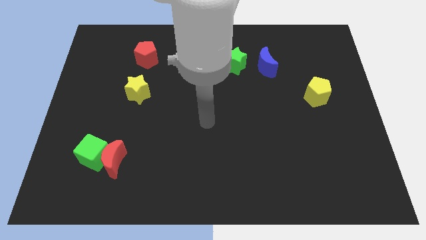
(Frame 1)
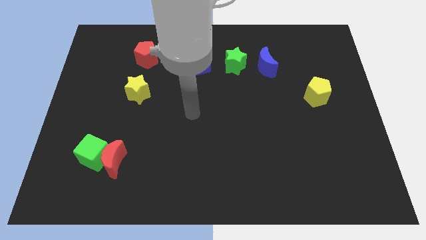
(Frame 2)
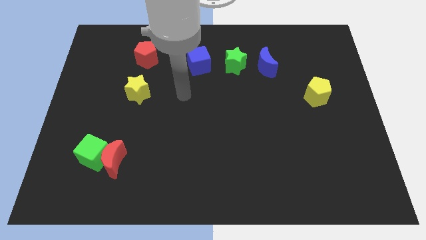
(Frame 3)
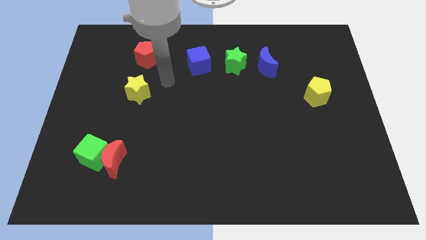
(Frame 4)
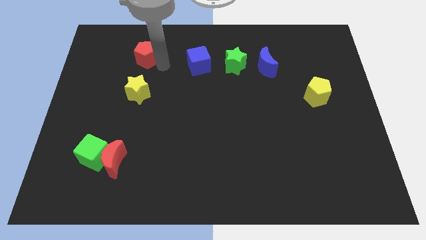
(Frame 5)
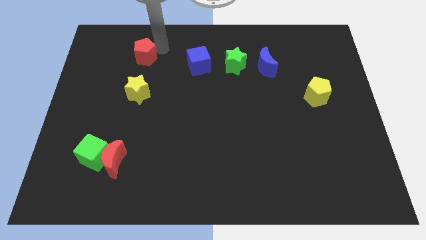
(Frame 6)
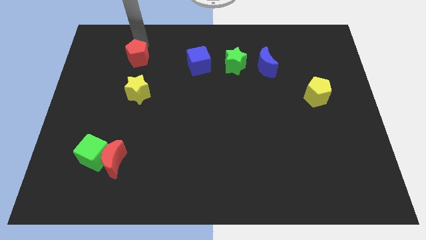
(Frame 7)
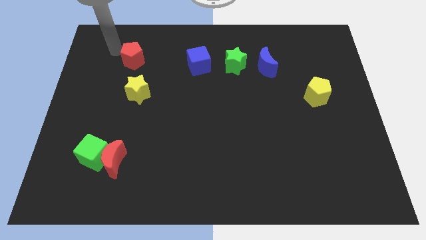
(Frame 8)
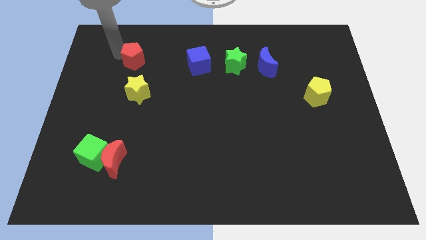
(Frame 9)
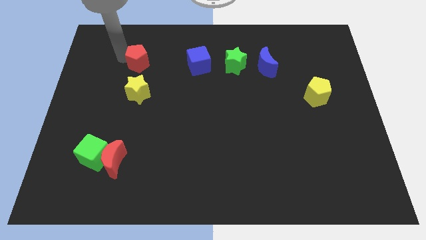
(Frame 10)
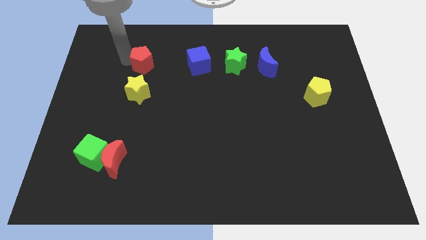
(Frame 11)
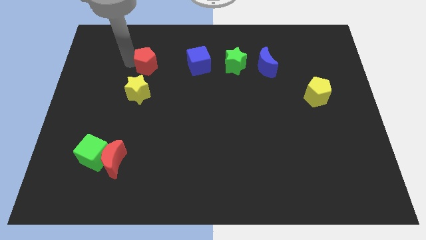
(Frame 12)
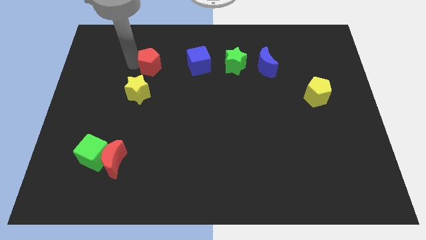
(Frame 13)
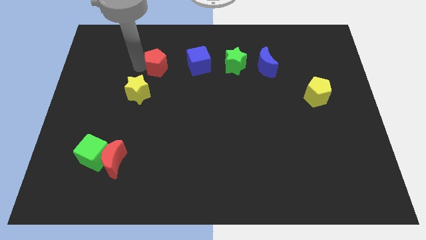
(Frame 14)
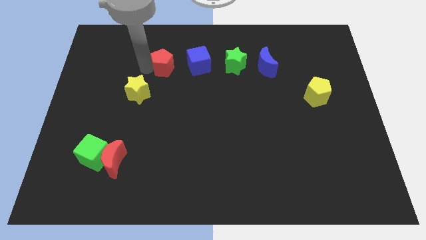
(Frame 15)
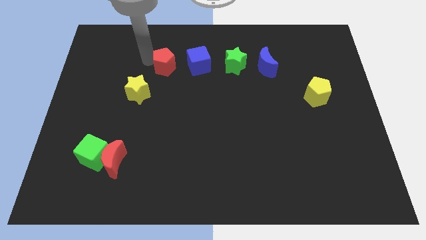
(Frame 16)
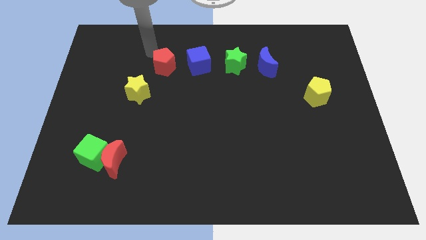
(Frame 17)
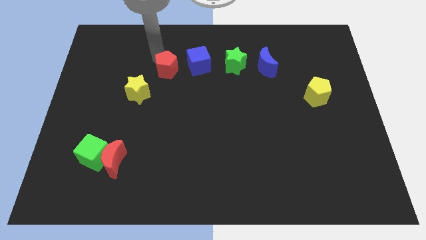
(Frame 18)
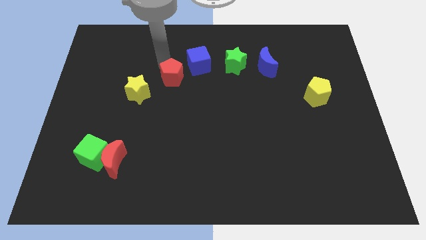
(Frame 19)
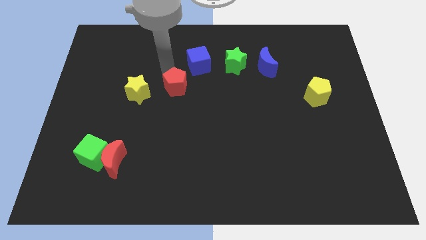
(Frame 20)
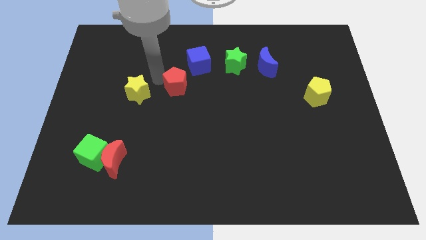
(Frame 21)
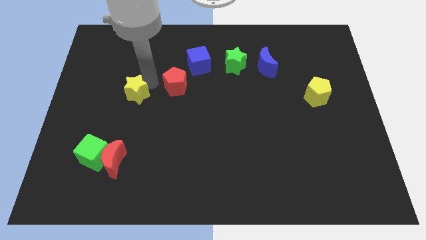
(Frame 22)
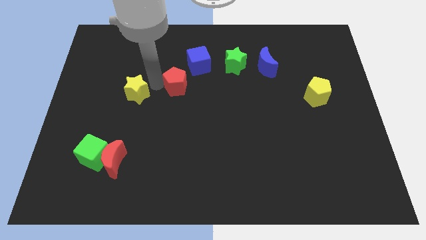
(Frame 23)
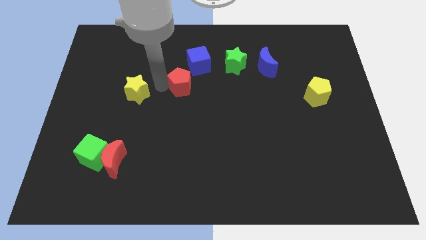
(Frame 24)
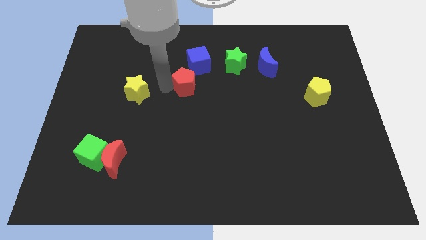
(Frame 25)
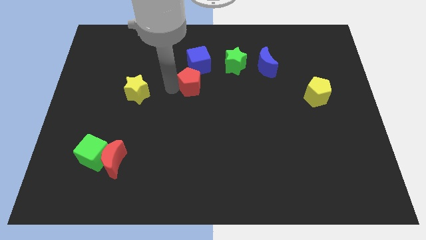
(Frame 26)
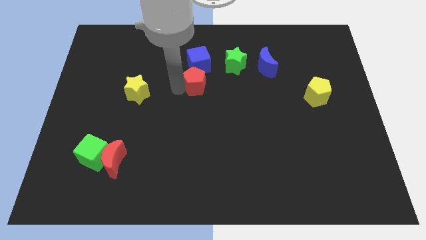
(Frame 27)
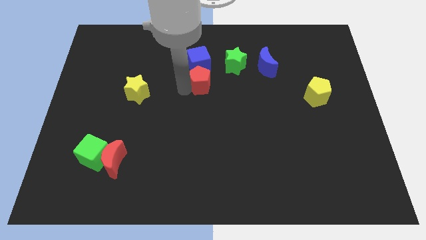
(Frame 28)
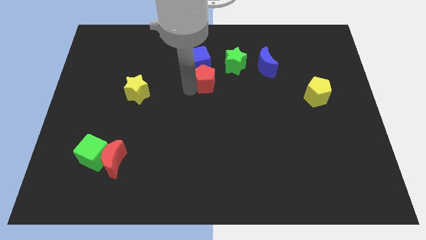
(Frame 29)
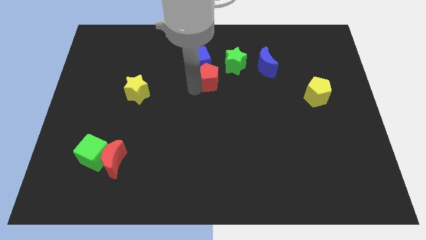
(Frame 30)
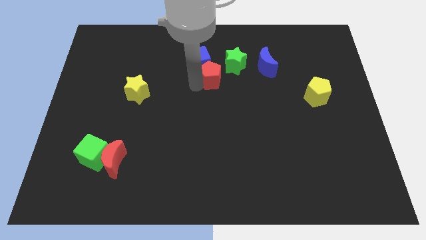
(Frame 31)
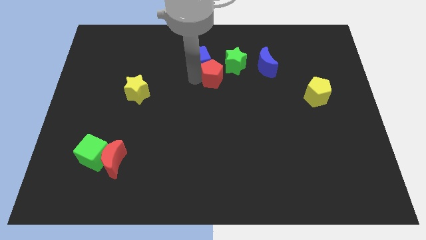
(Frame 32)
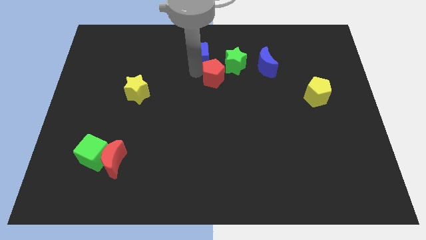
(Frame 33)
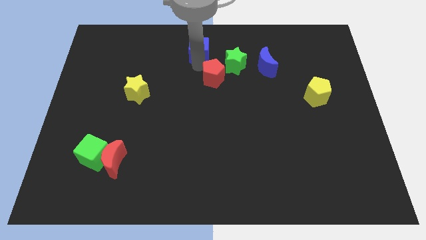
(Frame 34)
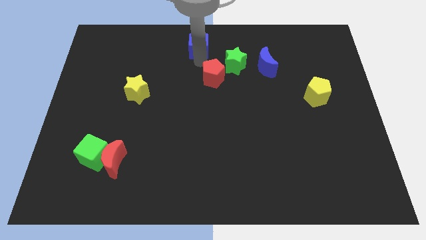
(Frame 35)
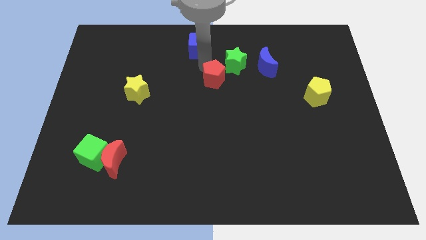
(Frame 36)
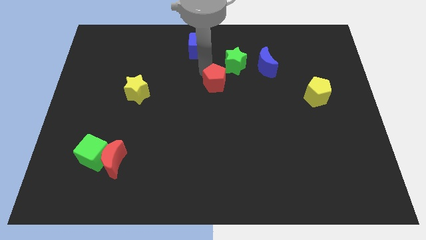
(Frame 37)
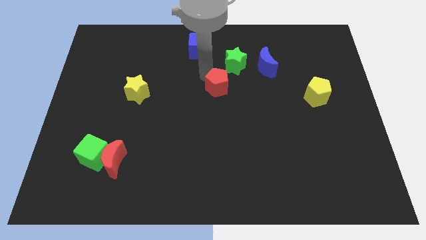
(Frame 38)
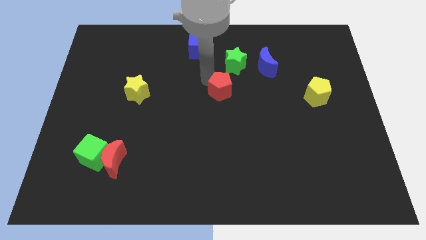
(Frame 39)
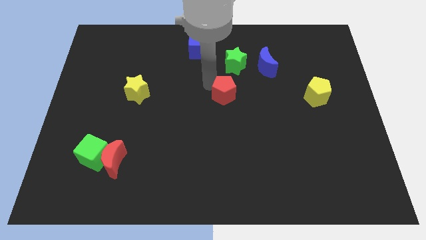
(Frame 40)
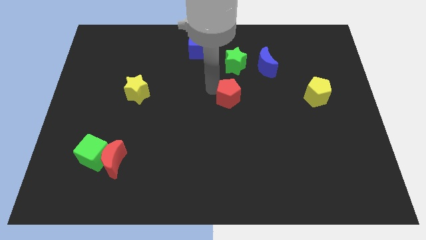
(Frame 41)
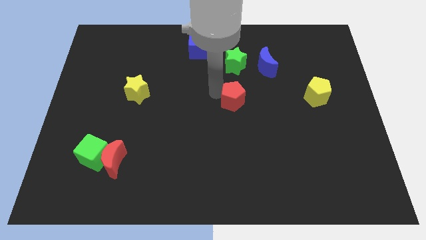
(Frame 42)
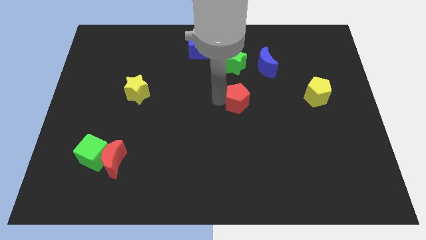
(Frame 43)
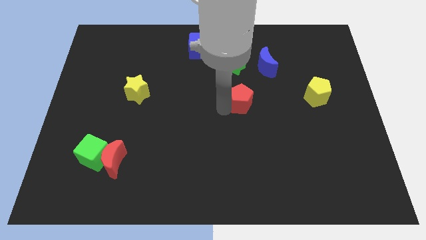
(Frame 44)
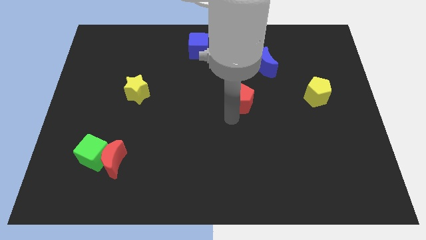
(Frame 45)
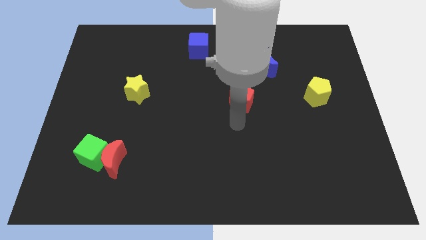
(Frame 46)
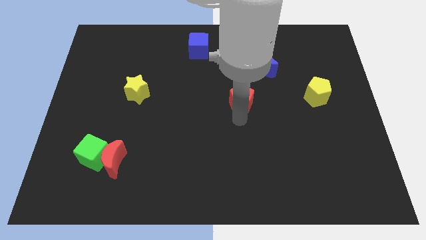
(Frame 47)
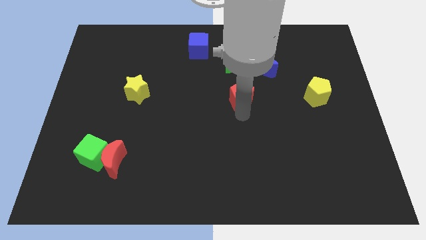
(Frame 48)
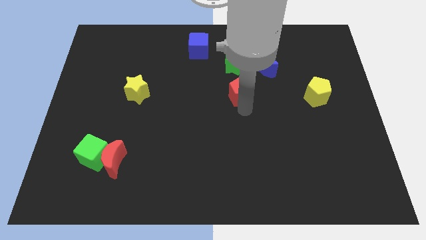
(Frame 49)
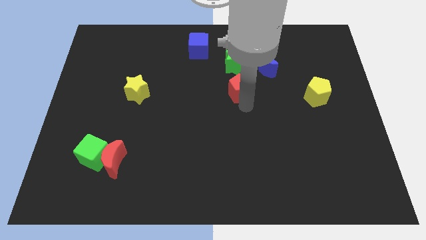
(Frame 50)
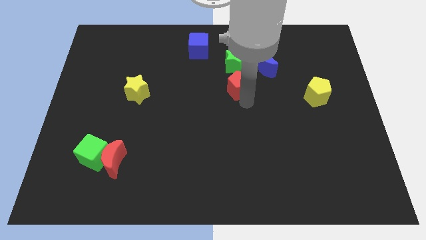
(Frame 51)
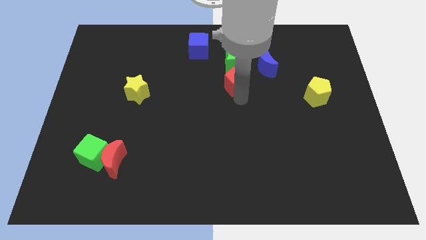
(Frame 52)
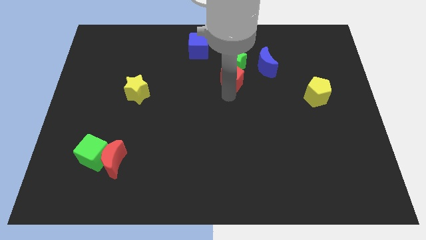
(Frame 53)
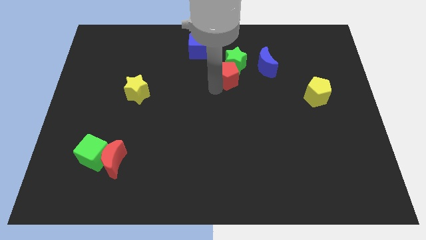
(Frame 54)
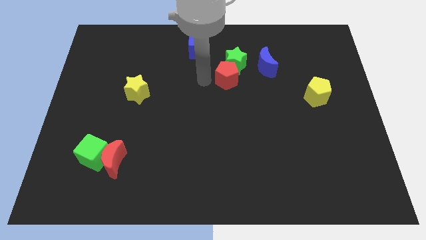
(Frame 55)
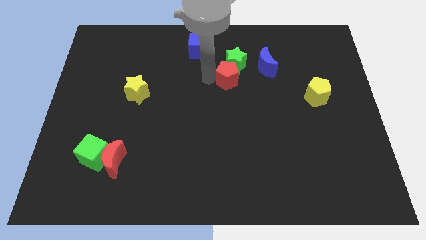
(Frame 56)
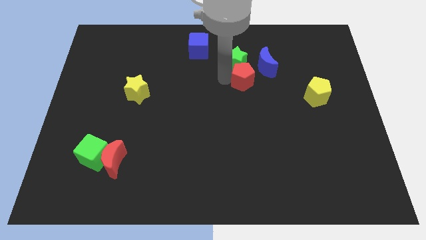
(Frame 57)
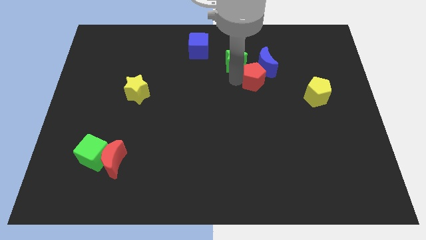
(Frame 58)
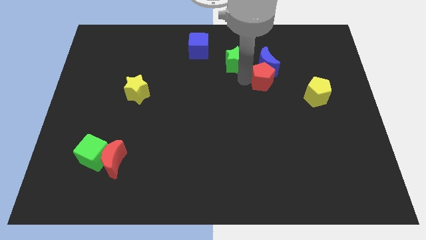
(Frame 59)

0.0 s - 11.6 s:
push the red pentagon to the bottom right of the blue moon

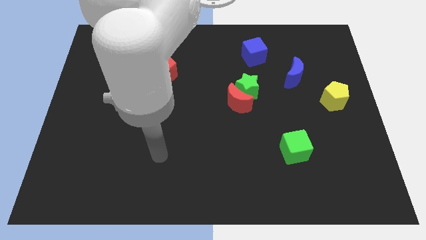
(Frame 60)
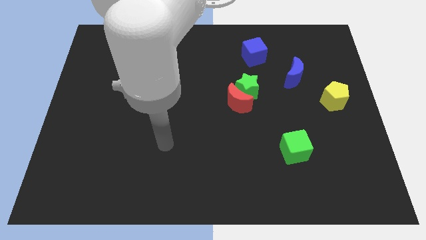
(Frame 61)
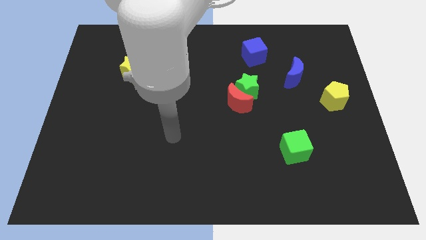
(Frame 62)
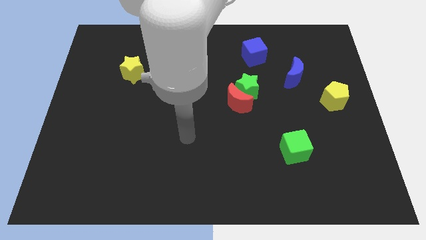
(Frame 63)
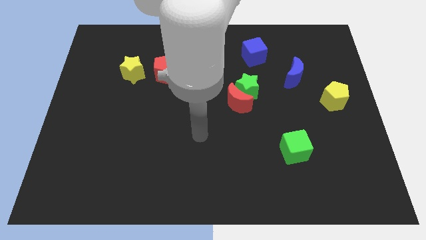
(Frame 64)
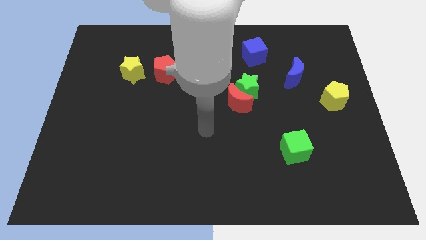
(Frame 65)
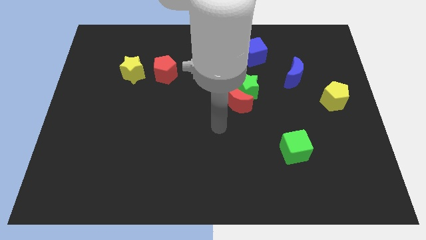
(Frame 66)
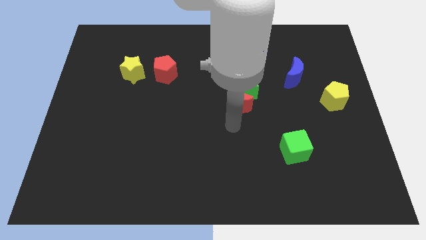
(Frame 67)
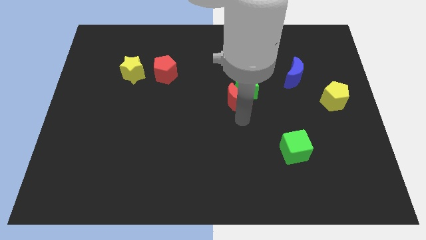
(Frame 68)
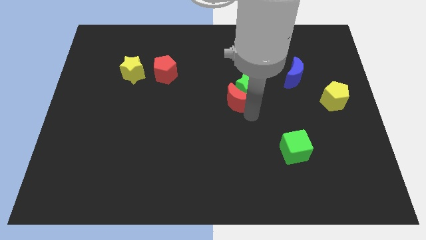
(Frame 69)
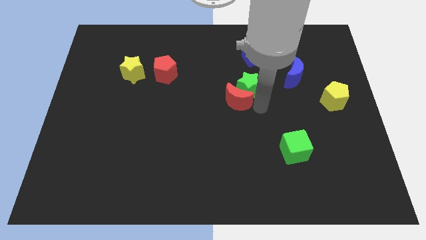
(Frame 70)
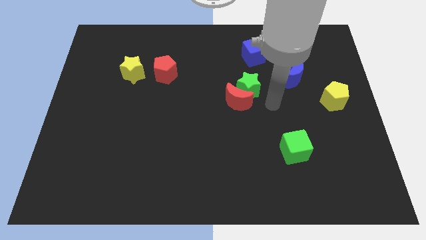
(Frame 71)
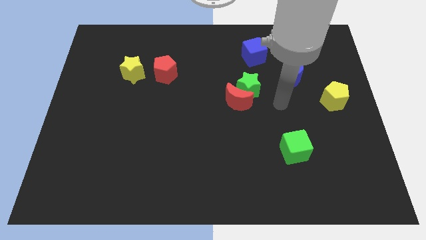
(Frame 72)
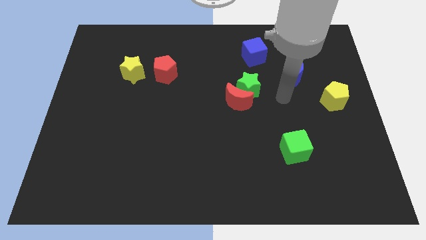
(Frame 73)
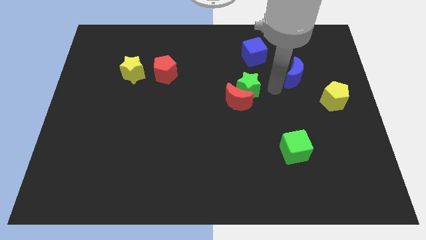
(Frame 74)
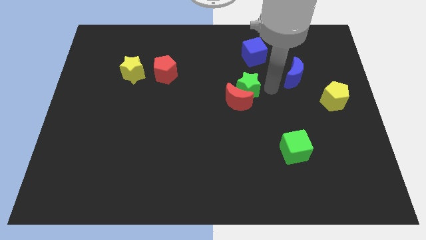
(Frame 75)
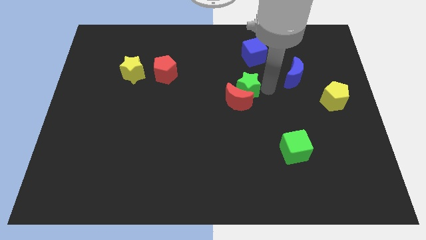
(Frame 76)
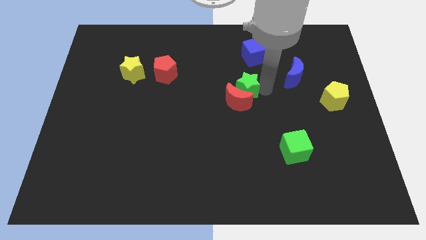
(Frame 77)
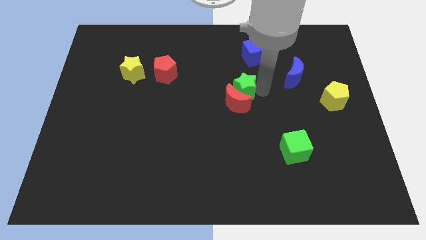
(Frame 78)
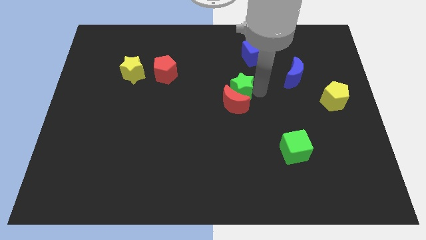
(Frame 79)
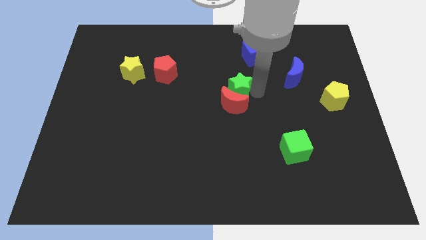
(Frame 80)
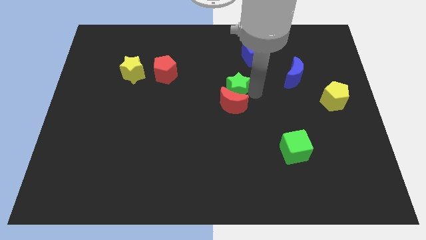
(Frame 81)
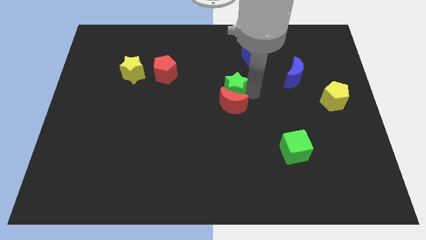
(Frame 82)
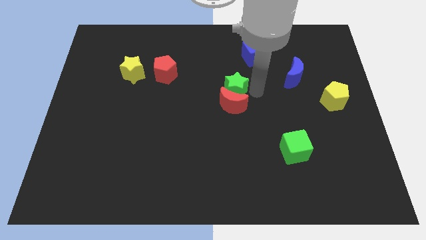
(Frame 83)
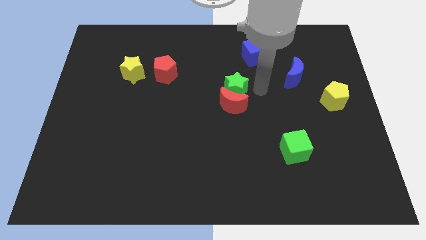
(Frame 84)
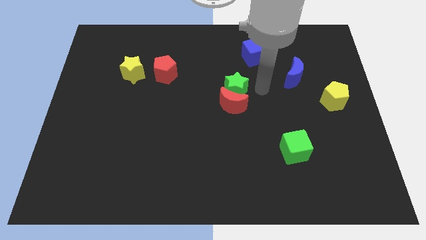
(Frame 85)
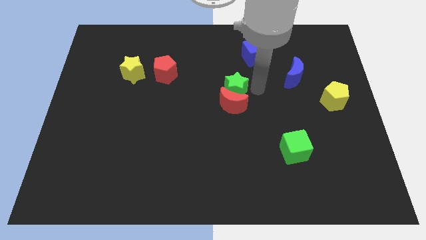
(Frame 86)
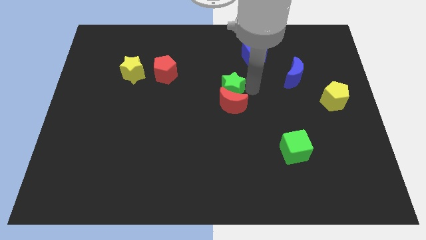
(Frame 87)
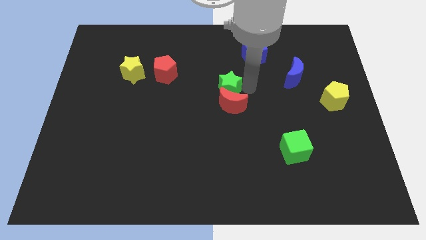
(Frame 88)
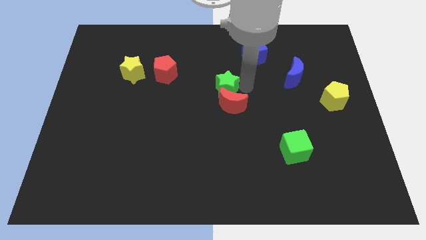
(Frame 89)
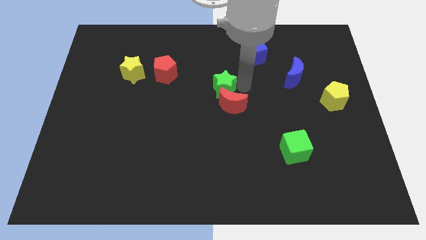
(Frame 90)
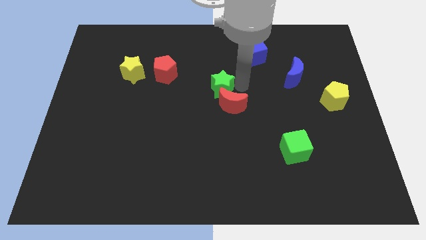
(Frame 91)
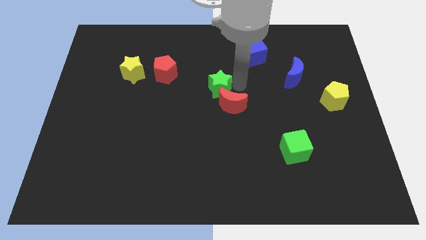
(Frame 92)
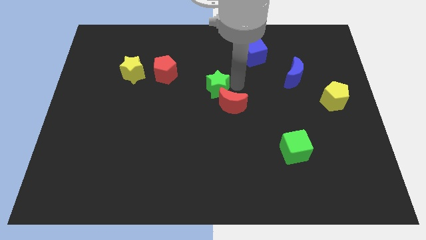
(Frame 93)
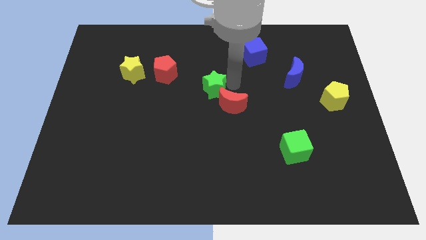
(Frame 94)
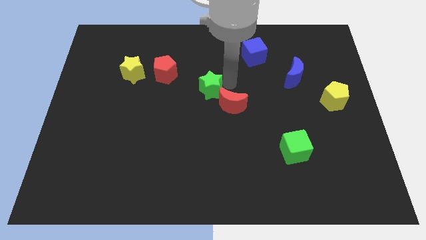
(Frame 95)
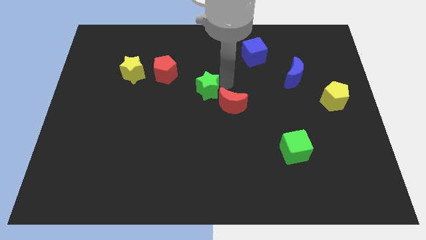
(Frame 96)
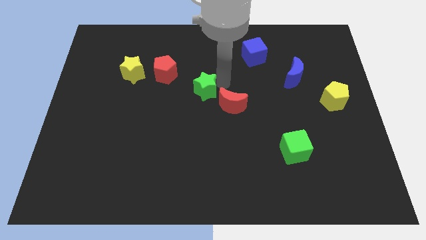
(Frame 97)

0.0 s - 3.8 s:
slide the green star to the left side of the red moon
